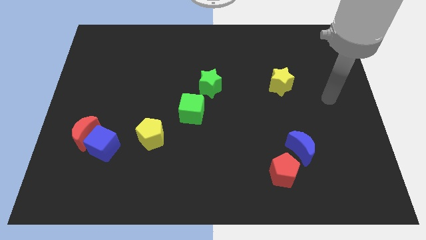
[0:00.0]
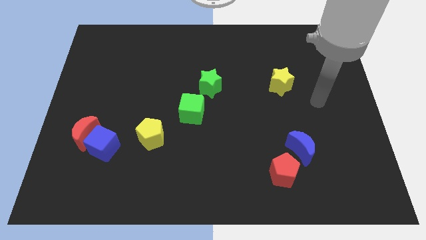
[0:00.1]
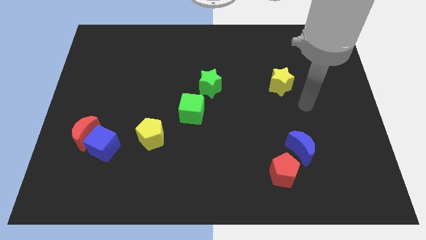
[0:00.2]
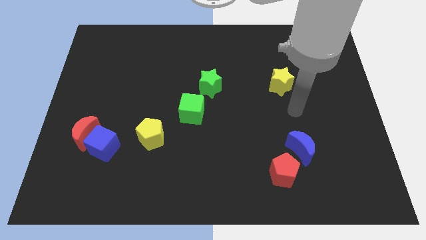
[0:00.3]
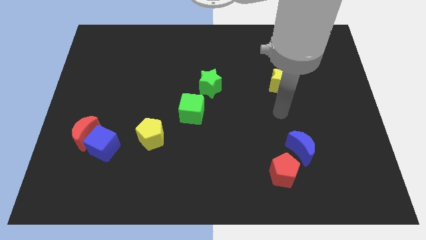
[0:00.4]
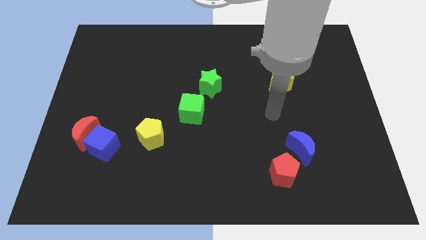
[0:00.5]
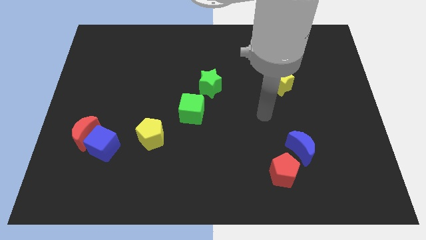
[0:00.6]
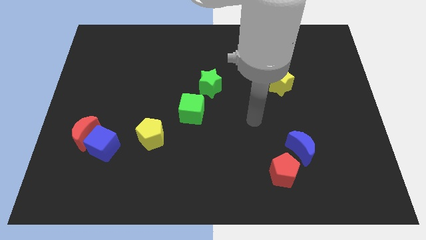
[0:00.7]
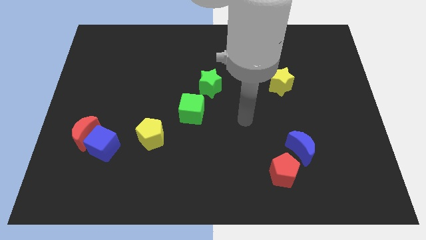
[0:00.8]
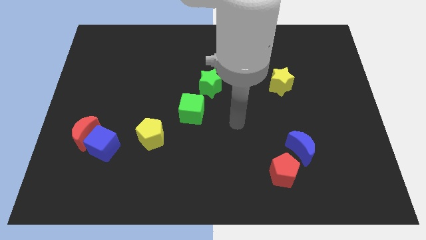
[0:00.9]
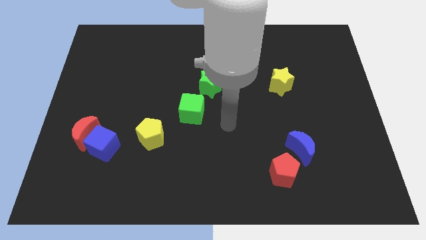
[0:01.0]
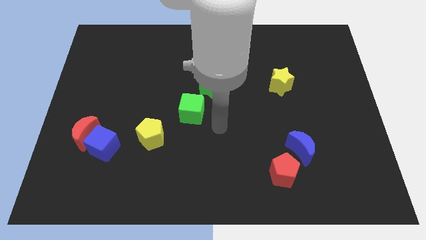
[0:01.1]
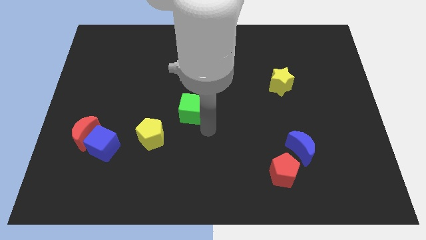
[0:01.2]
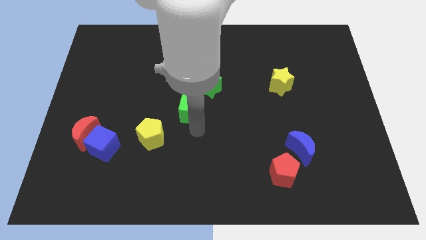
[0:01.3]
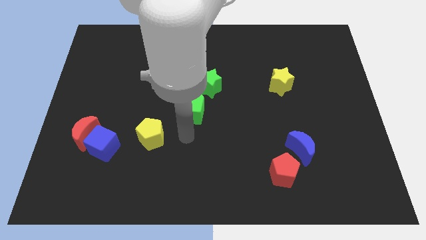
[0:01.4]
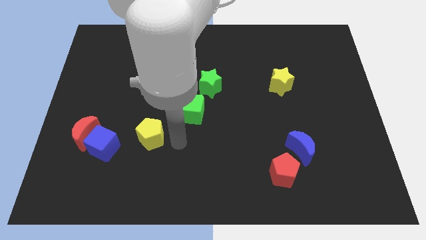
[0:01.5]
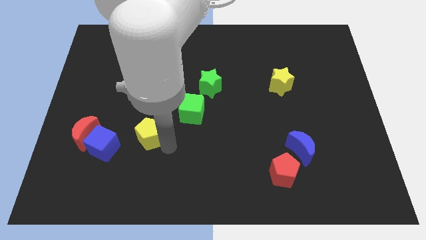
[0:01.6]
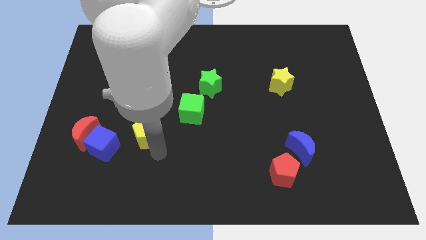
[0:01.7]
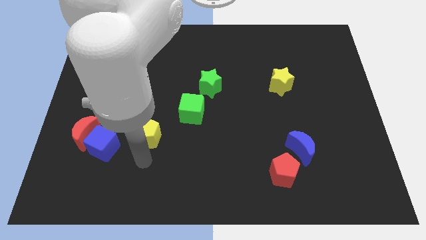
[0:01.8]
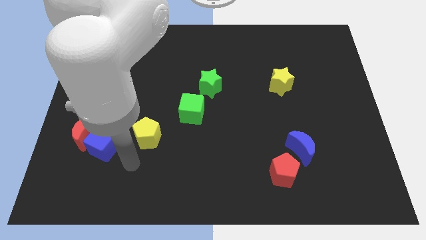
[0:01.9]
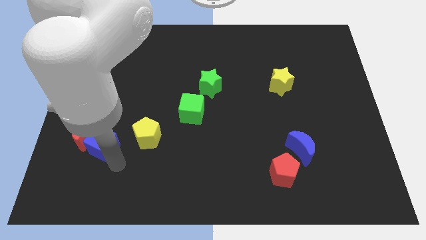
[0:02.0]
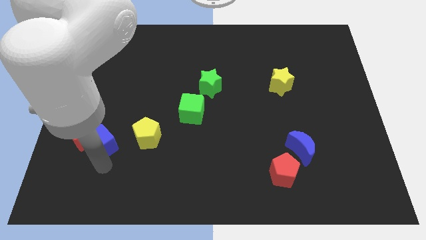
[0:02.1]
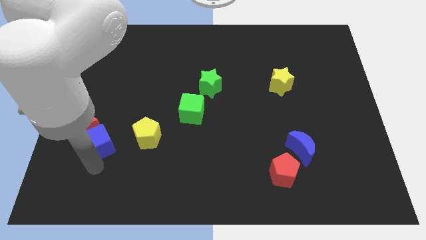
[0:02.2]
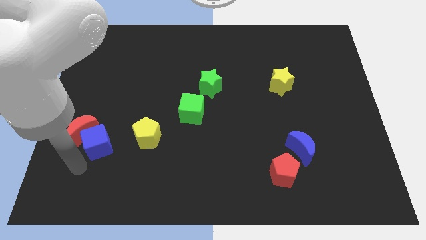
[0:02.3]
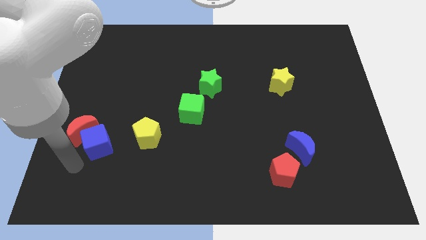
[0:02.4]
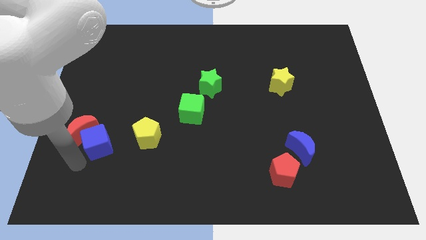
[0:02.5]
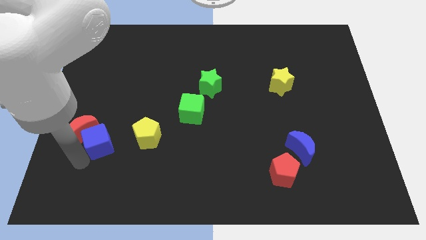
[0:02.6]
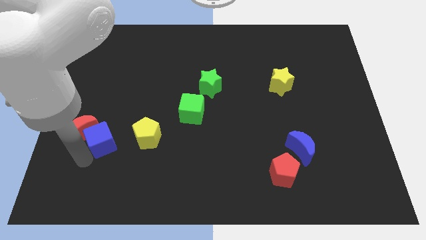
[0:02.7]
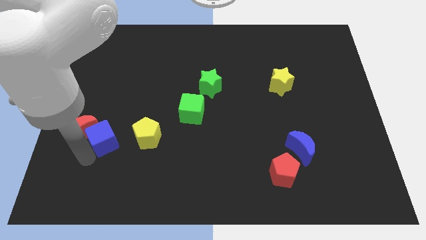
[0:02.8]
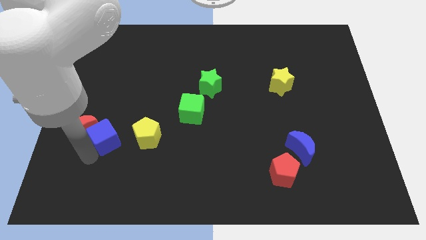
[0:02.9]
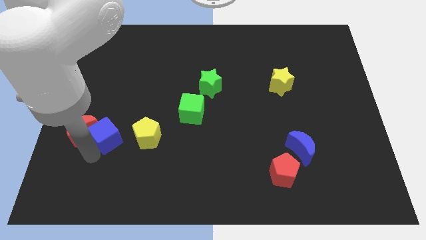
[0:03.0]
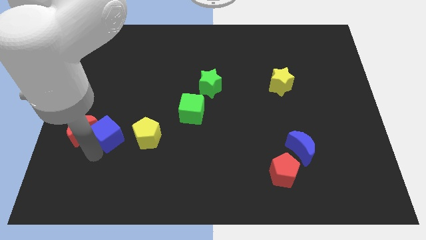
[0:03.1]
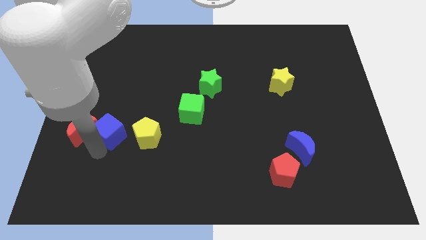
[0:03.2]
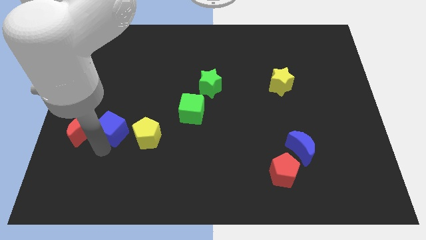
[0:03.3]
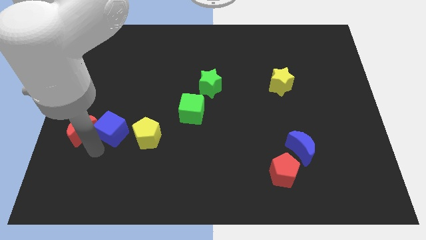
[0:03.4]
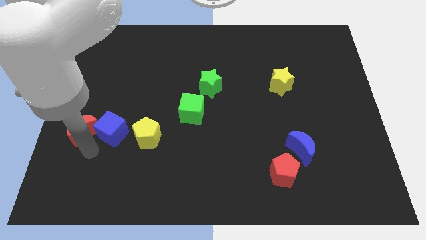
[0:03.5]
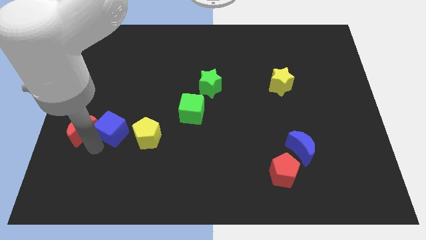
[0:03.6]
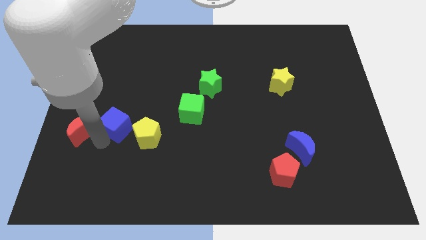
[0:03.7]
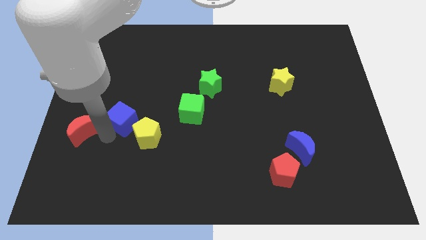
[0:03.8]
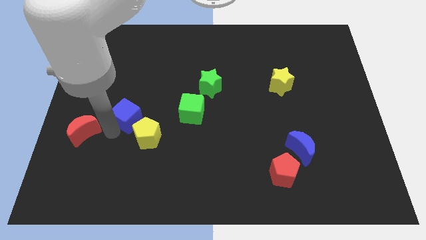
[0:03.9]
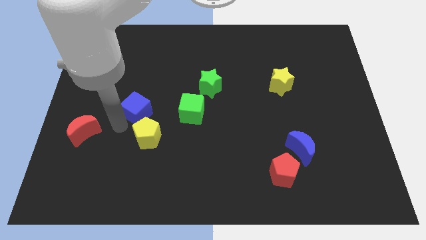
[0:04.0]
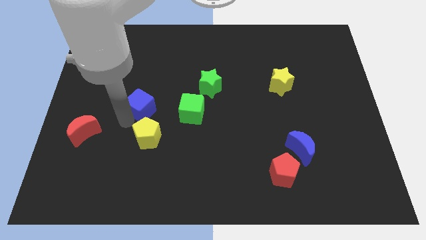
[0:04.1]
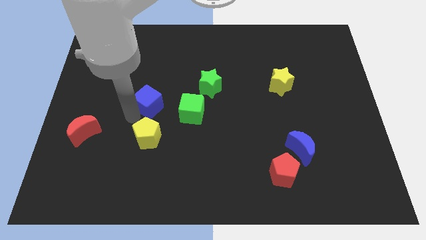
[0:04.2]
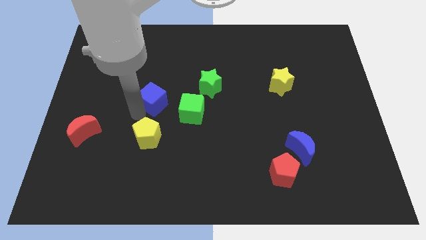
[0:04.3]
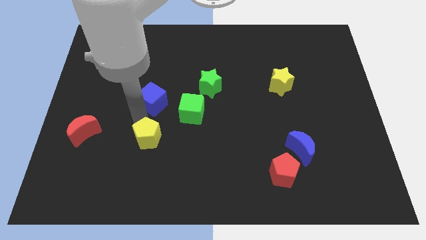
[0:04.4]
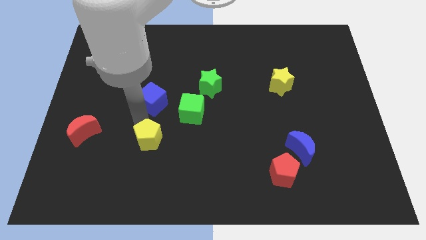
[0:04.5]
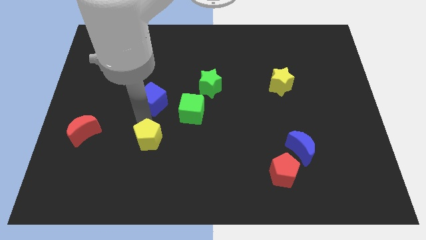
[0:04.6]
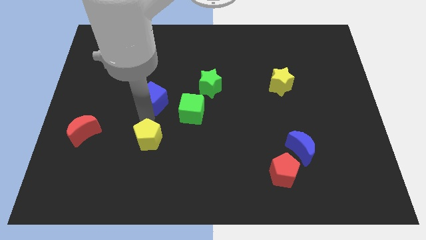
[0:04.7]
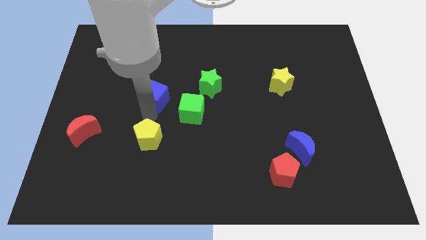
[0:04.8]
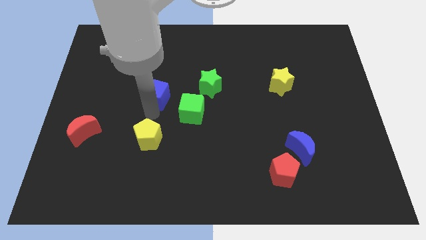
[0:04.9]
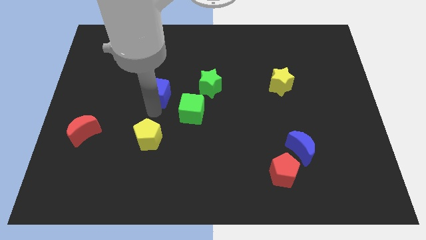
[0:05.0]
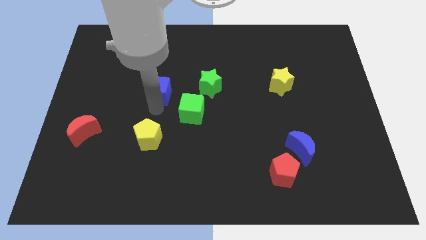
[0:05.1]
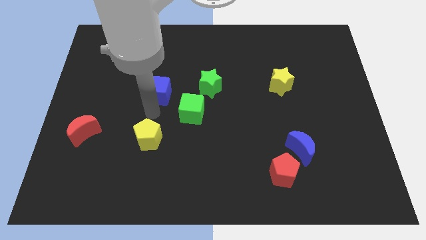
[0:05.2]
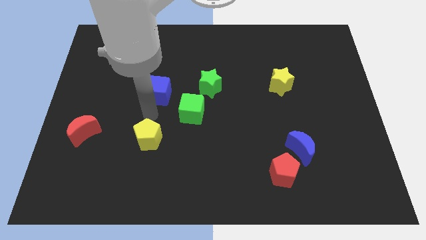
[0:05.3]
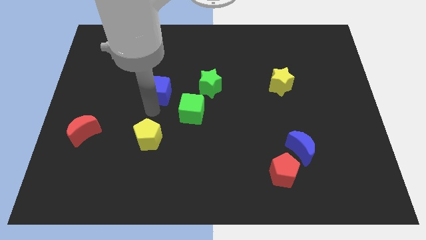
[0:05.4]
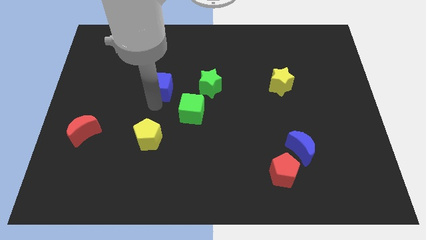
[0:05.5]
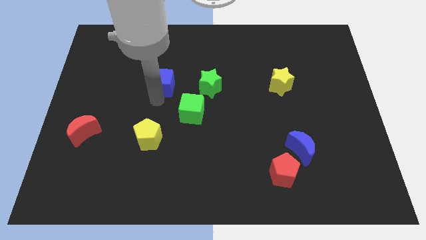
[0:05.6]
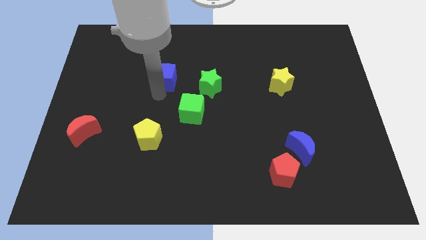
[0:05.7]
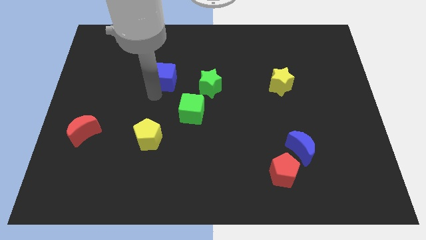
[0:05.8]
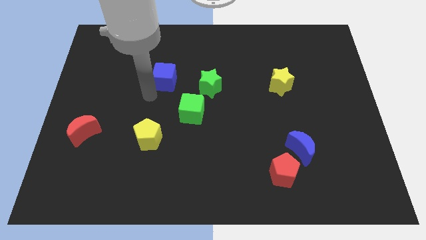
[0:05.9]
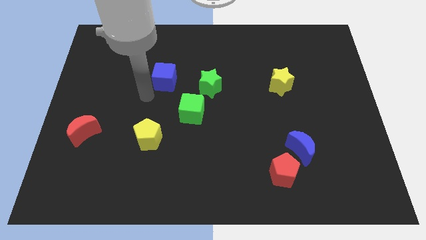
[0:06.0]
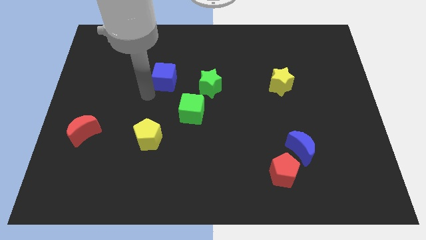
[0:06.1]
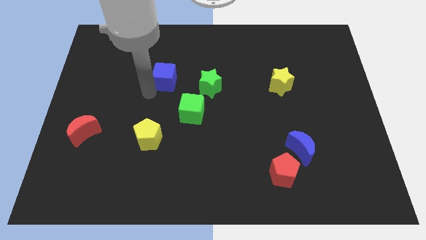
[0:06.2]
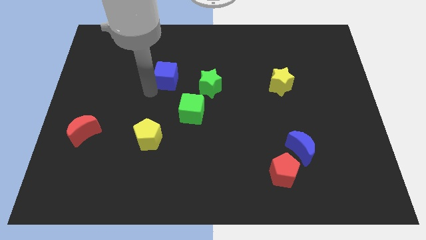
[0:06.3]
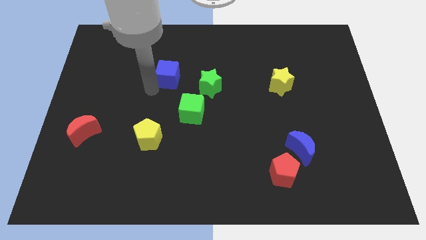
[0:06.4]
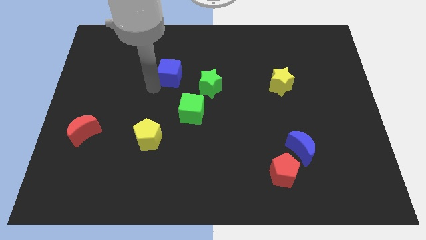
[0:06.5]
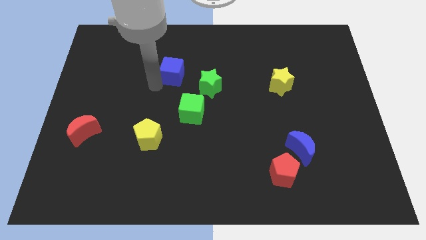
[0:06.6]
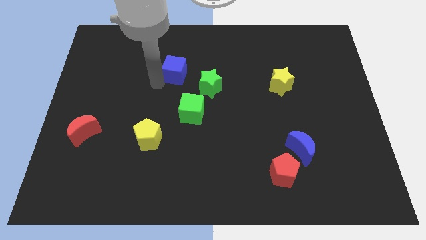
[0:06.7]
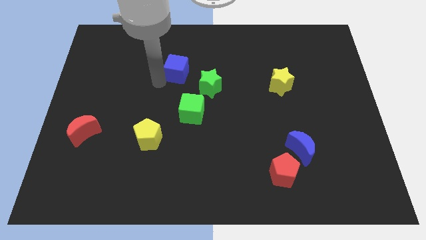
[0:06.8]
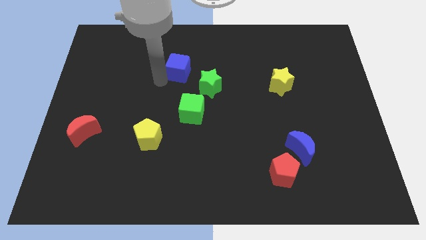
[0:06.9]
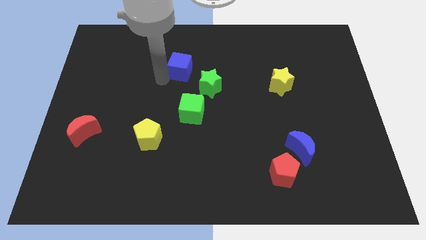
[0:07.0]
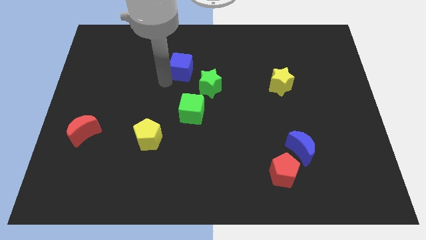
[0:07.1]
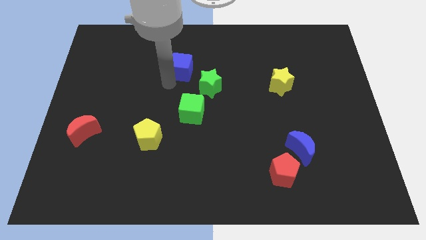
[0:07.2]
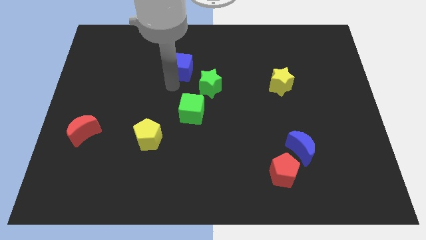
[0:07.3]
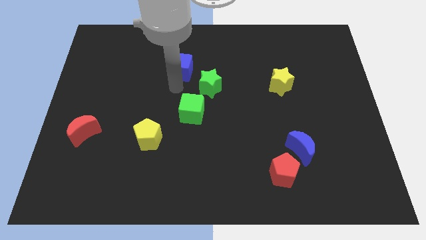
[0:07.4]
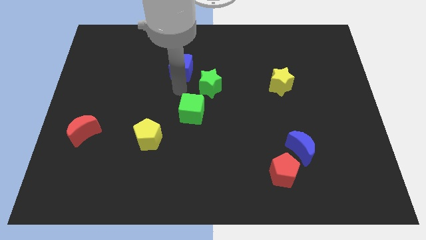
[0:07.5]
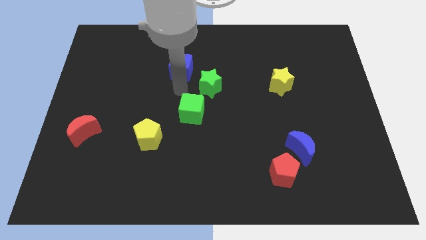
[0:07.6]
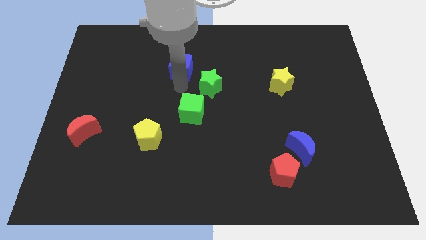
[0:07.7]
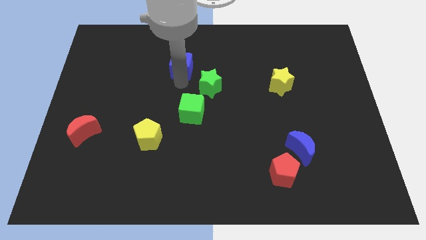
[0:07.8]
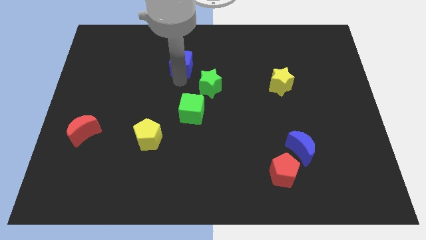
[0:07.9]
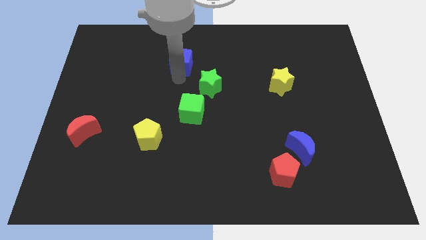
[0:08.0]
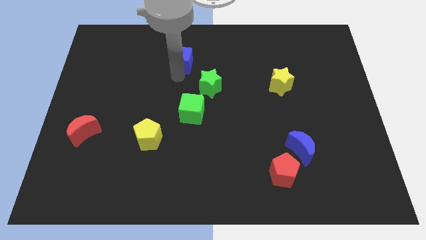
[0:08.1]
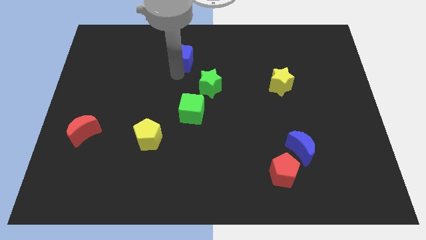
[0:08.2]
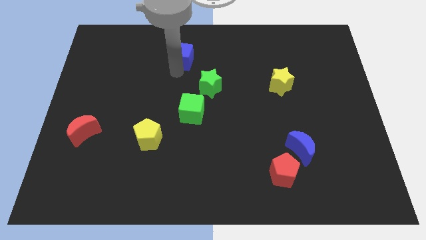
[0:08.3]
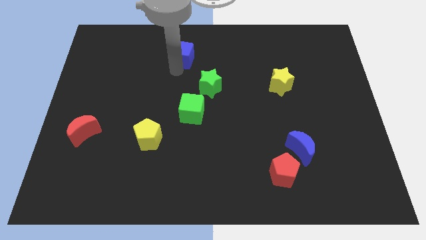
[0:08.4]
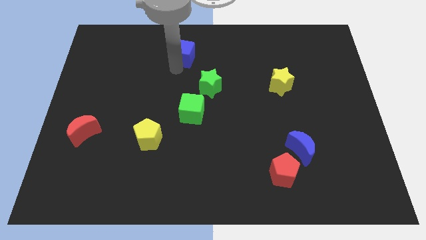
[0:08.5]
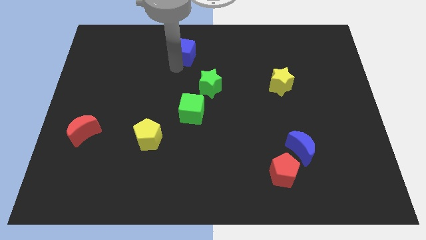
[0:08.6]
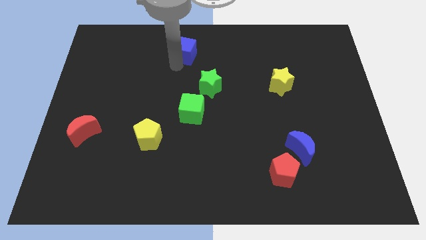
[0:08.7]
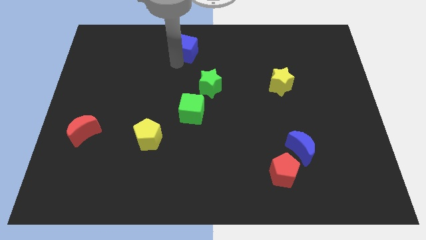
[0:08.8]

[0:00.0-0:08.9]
move the blue cube to the top side
